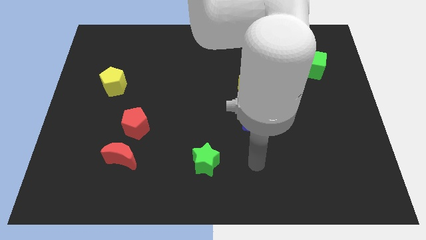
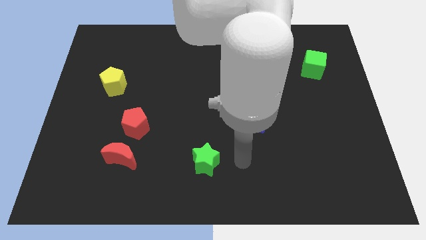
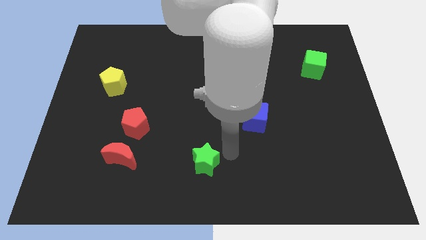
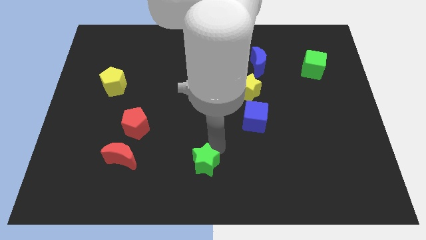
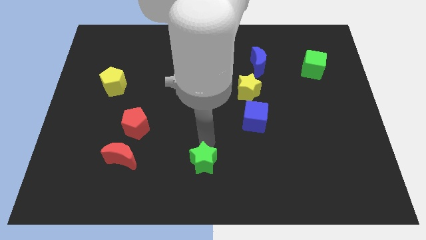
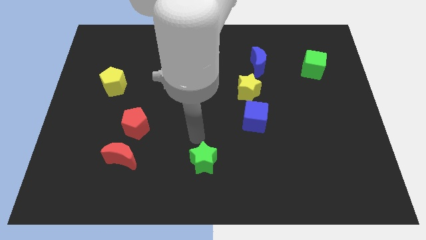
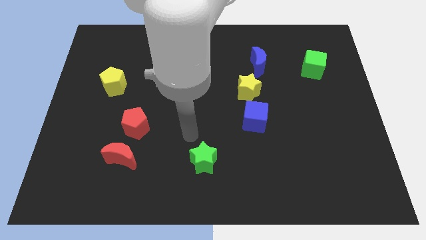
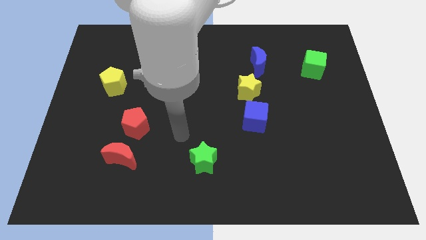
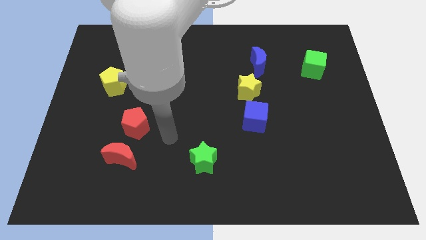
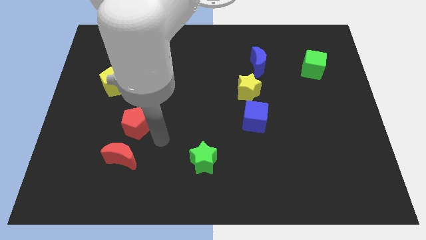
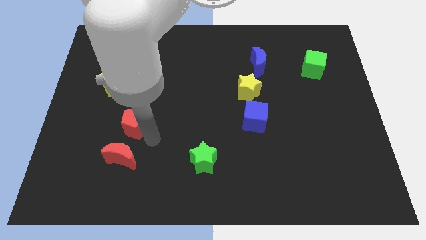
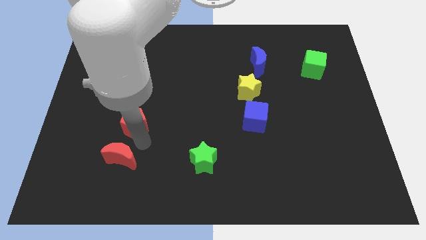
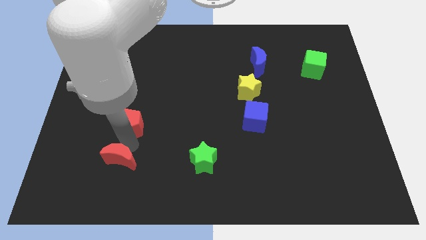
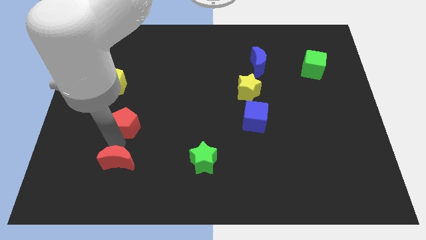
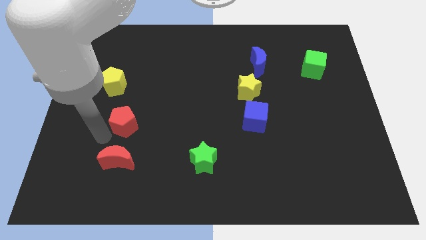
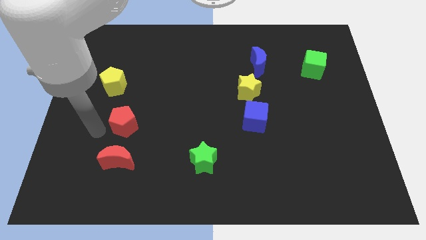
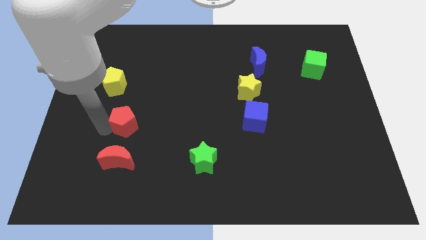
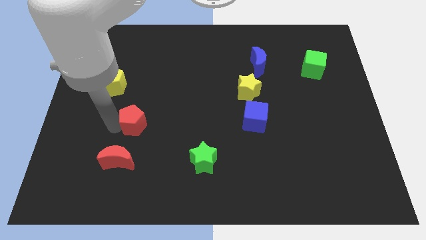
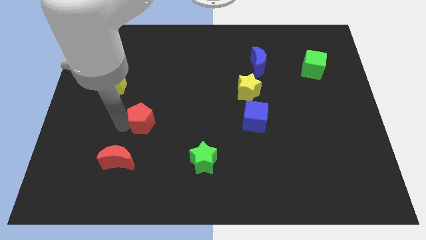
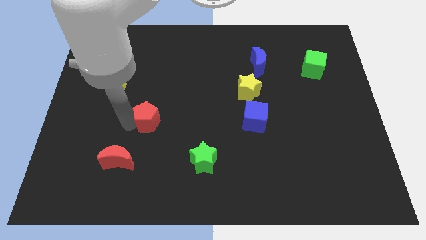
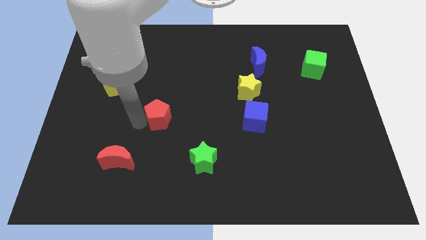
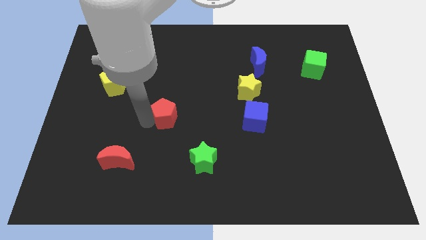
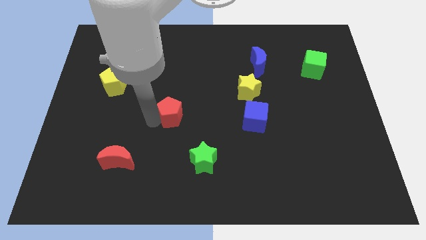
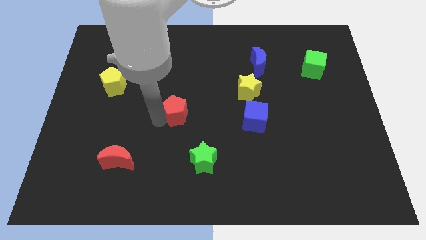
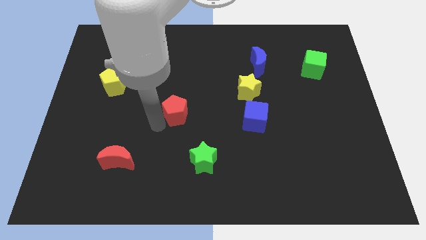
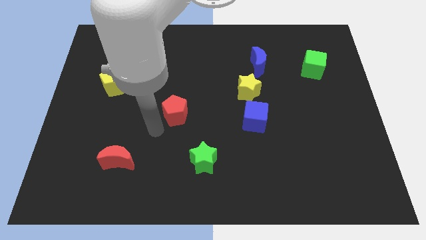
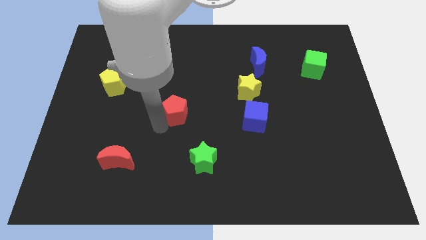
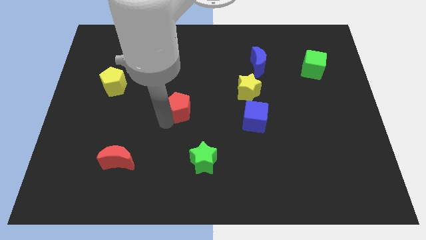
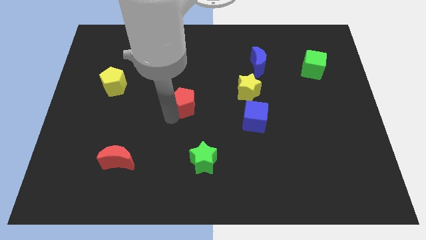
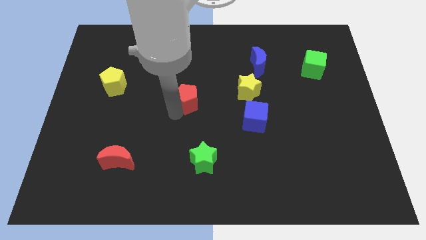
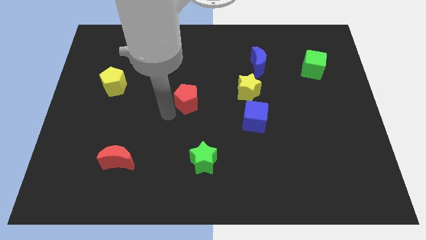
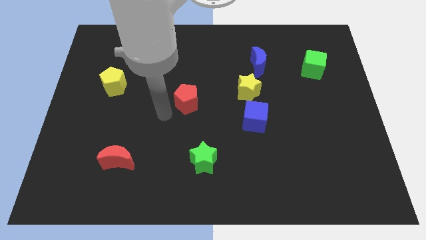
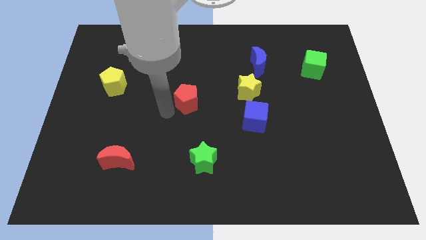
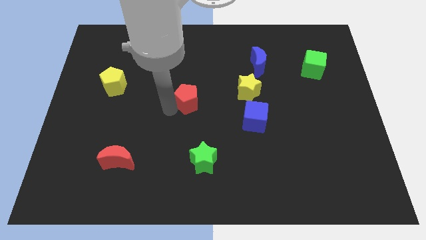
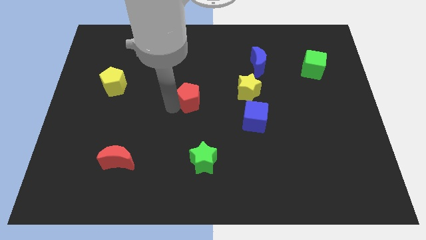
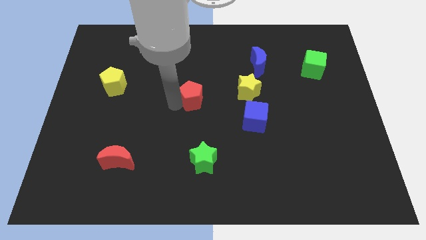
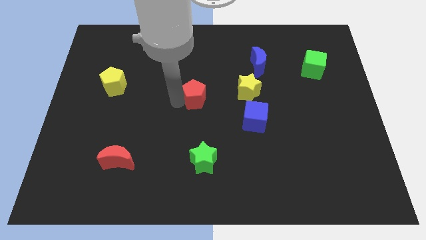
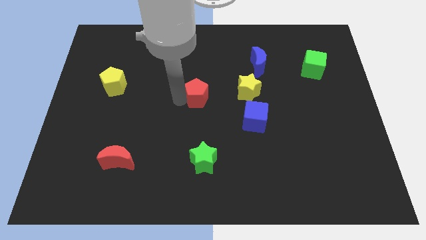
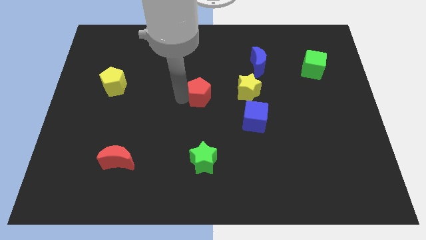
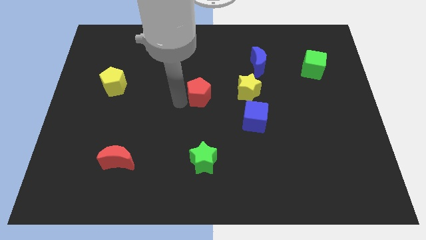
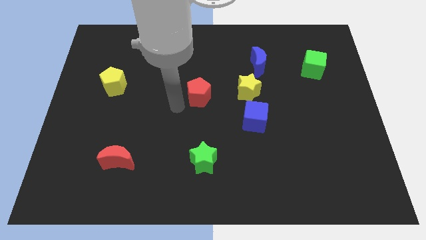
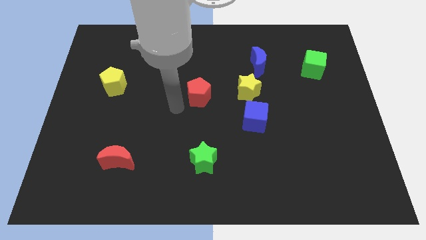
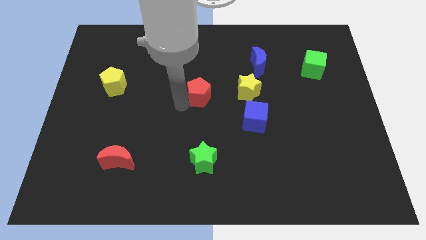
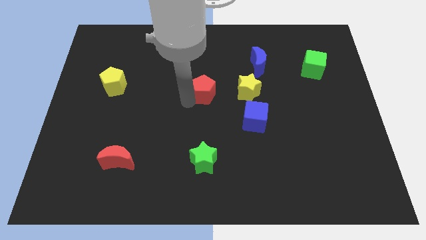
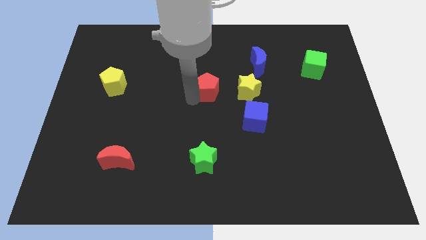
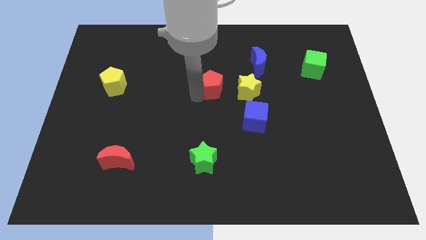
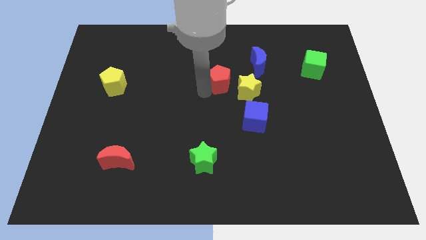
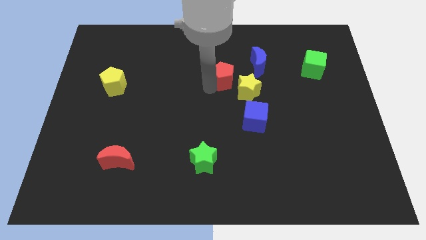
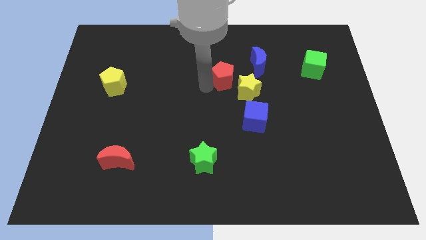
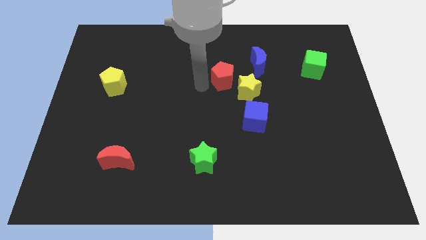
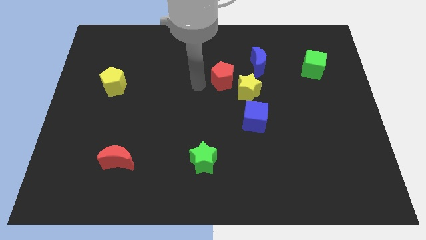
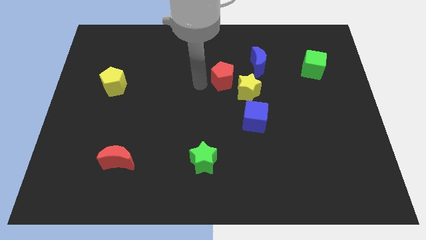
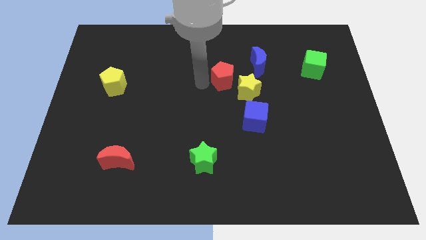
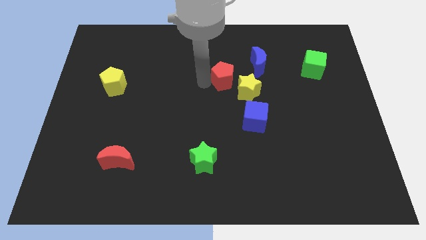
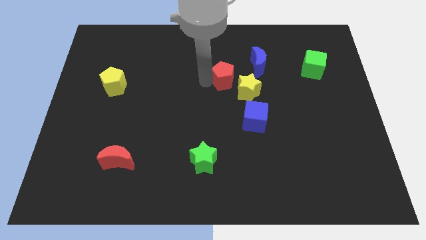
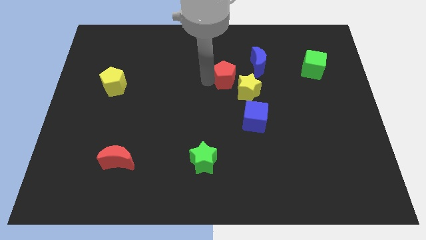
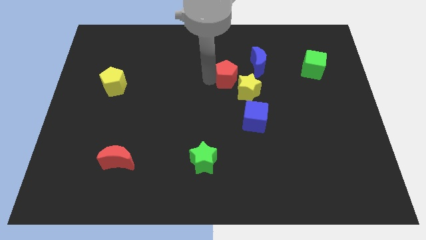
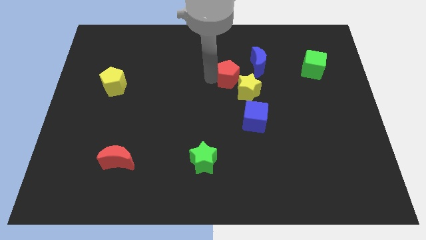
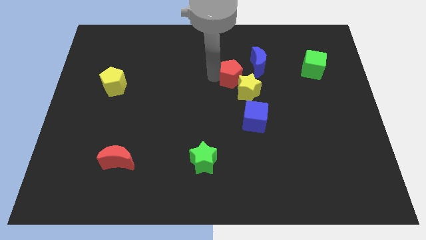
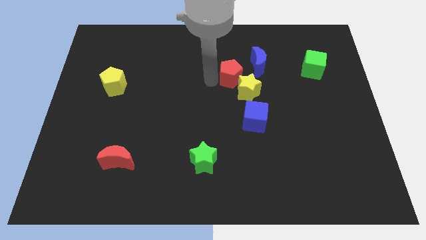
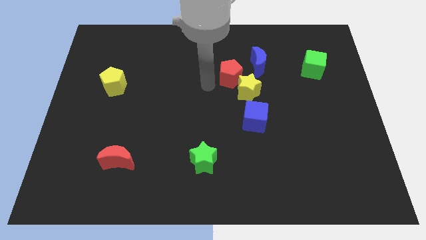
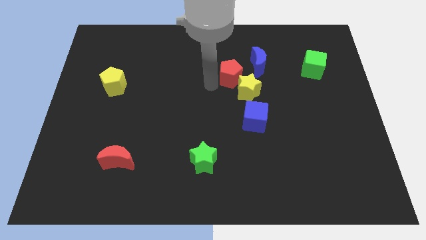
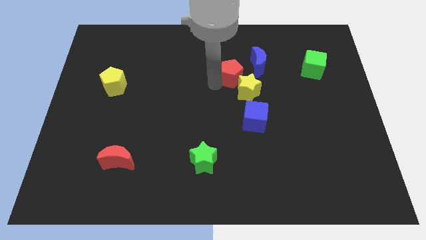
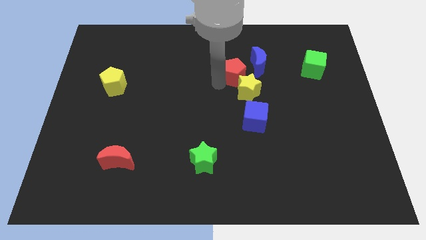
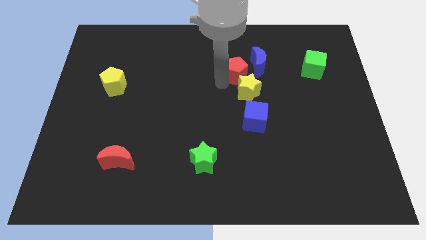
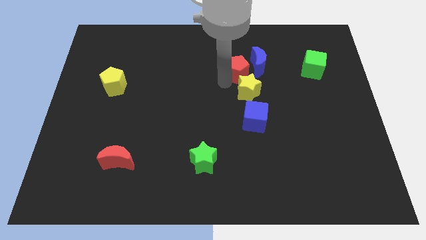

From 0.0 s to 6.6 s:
slide the red pentagon next to the blue moon
